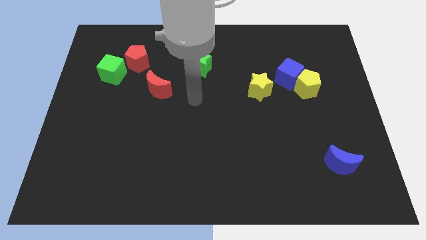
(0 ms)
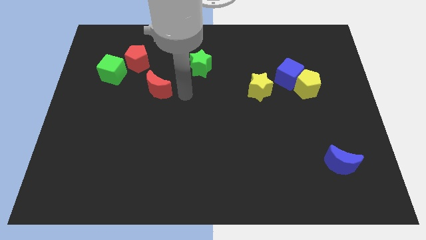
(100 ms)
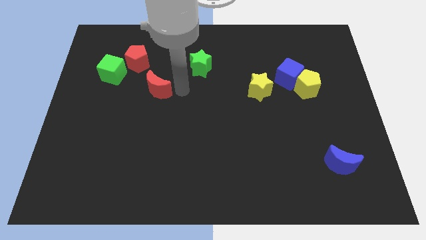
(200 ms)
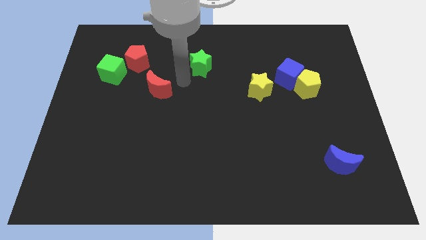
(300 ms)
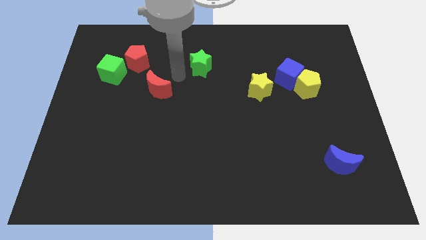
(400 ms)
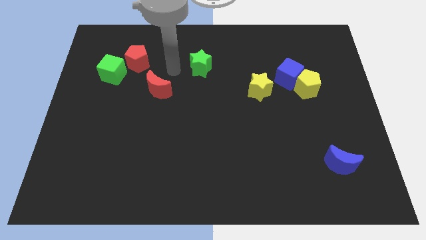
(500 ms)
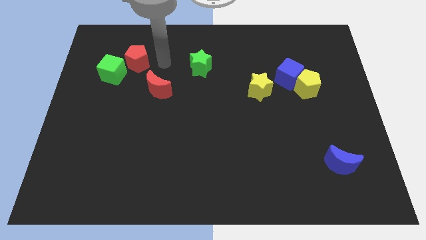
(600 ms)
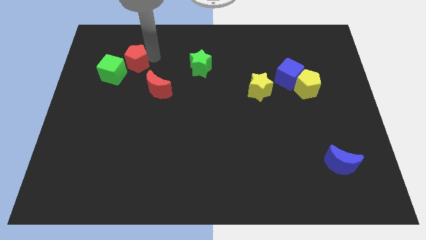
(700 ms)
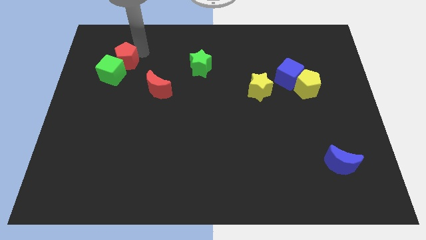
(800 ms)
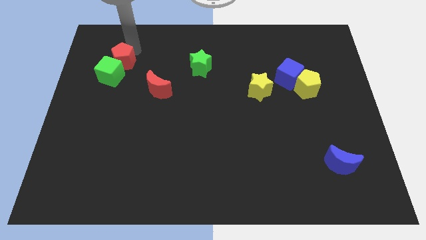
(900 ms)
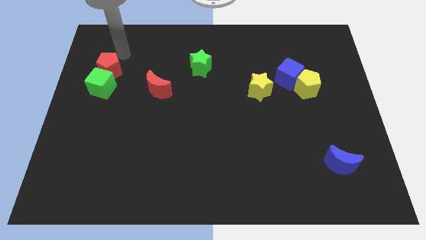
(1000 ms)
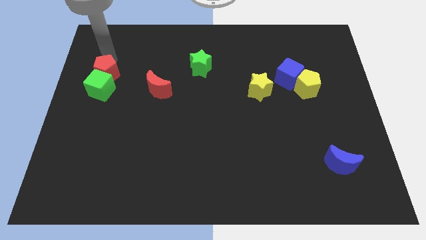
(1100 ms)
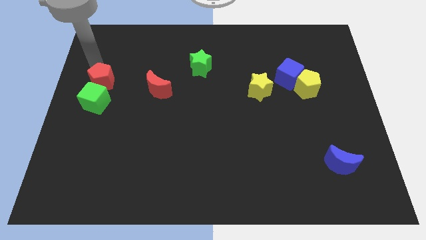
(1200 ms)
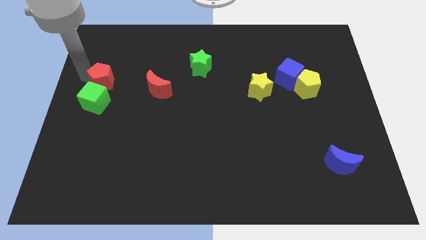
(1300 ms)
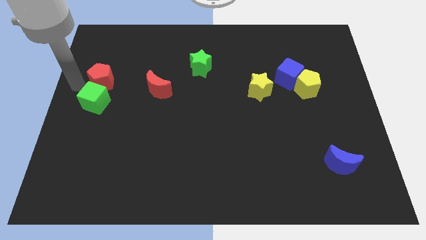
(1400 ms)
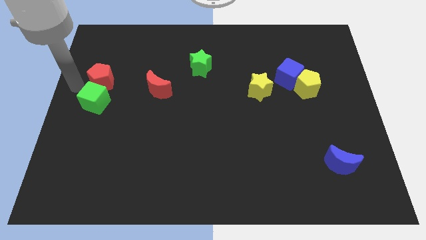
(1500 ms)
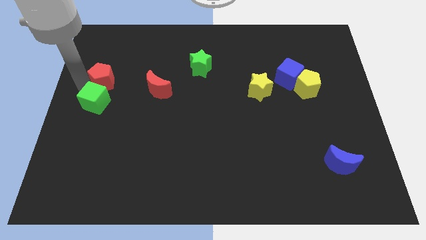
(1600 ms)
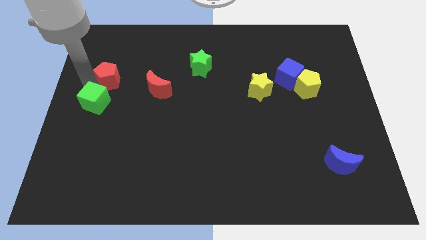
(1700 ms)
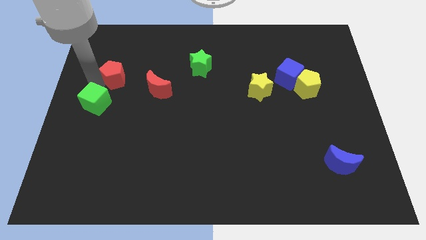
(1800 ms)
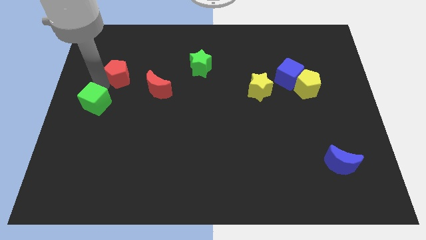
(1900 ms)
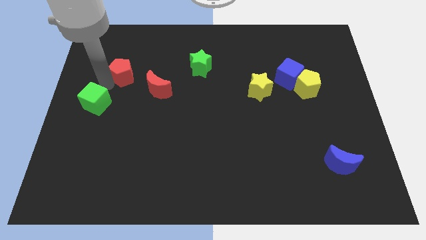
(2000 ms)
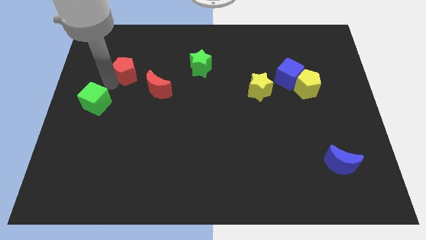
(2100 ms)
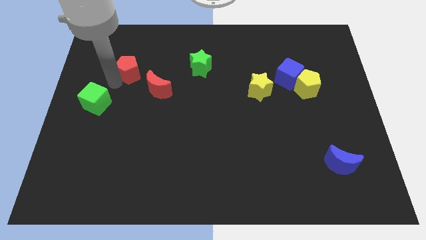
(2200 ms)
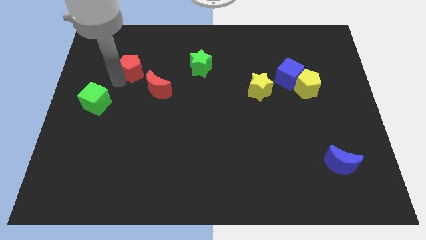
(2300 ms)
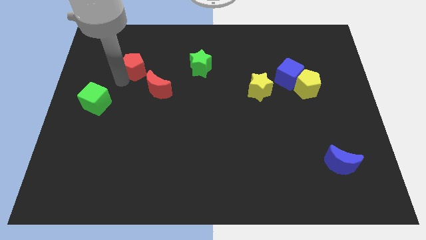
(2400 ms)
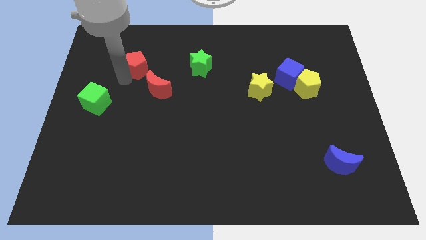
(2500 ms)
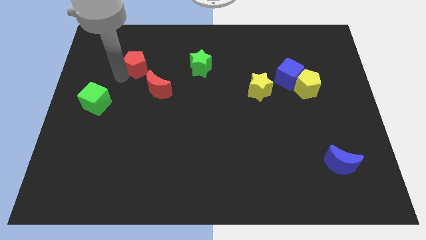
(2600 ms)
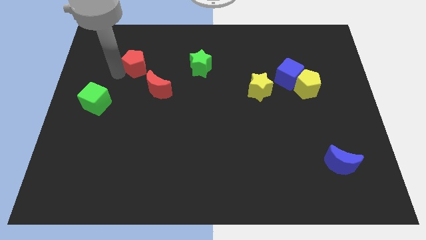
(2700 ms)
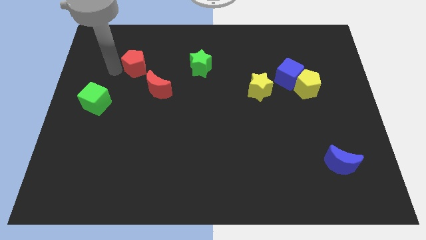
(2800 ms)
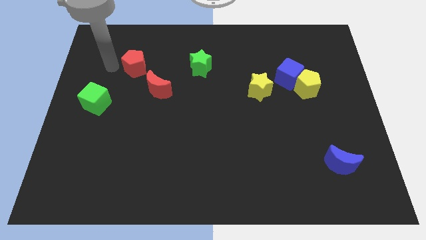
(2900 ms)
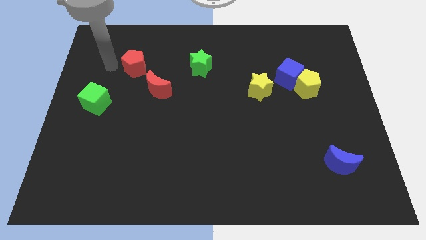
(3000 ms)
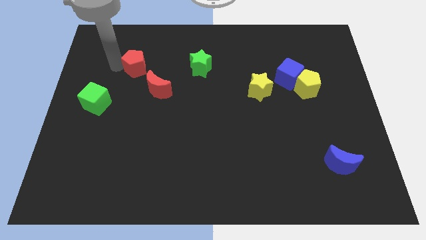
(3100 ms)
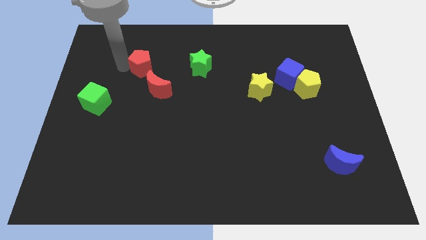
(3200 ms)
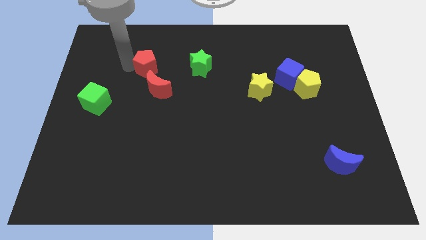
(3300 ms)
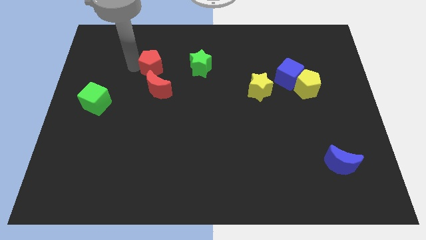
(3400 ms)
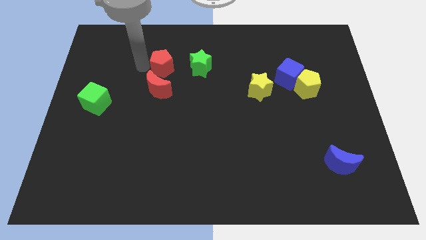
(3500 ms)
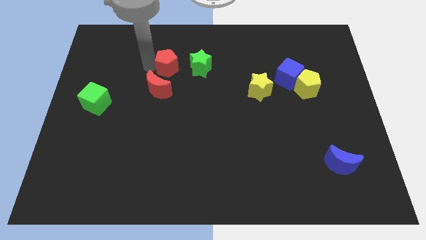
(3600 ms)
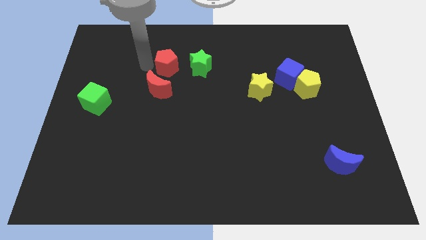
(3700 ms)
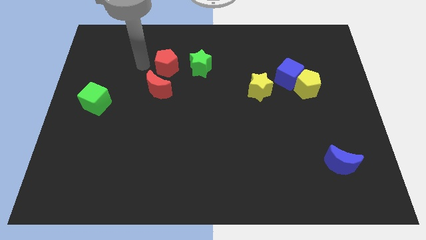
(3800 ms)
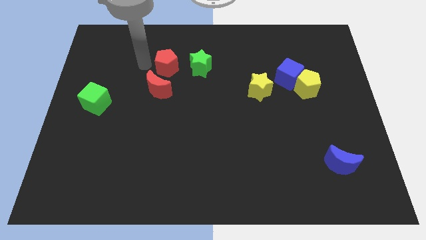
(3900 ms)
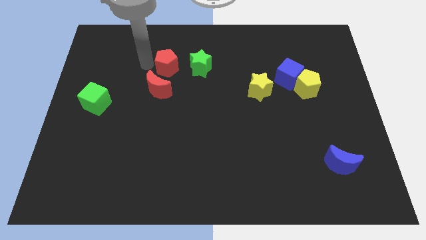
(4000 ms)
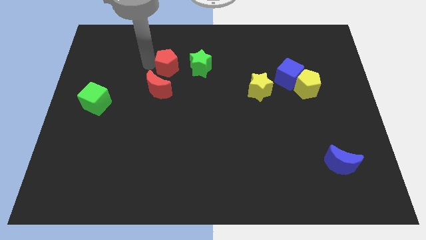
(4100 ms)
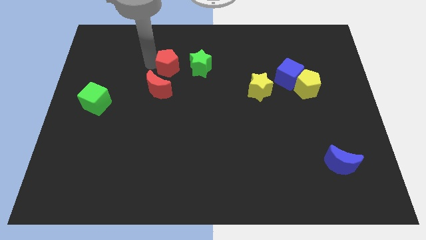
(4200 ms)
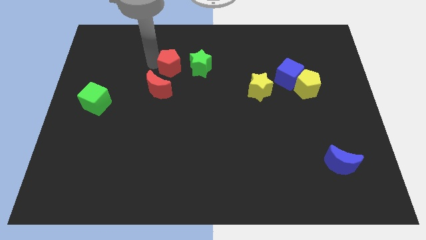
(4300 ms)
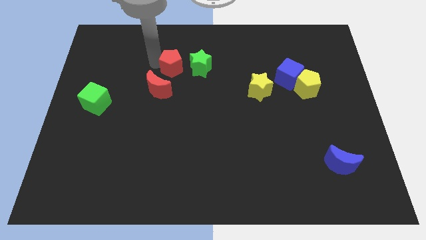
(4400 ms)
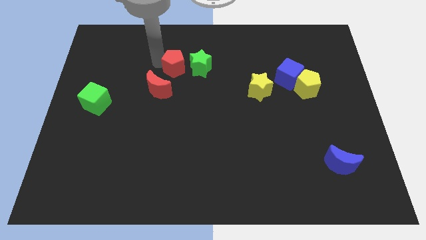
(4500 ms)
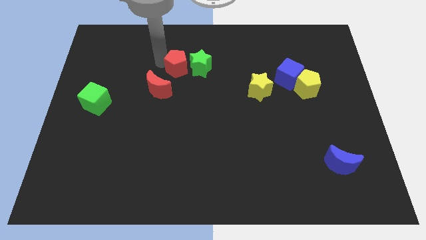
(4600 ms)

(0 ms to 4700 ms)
push the red pentagon next to the green star

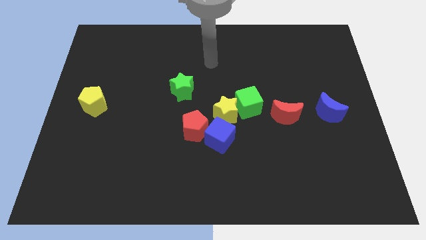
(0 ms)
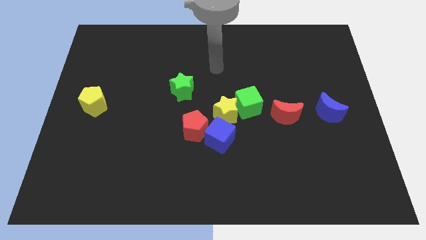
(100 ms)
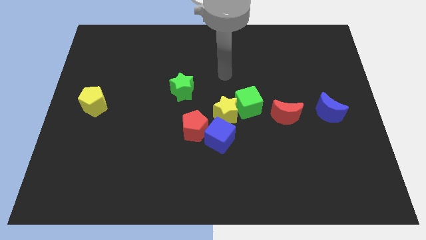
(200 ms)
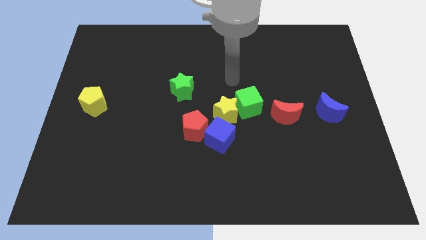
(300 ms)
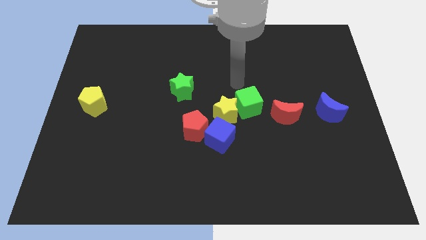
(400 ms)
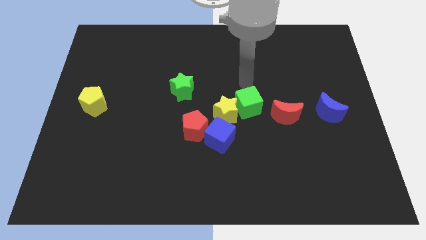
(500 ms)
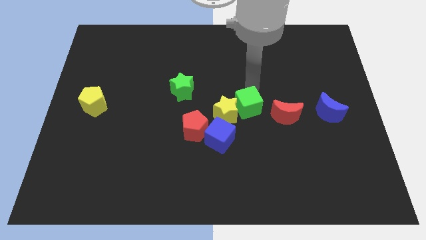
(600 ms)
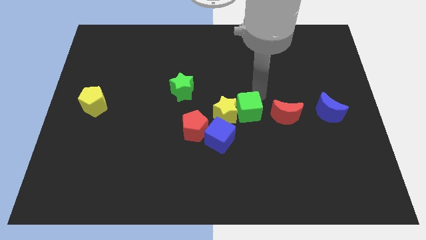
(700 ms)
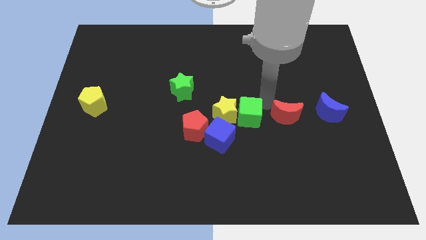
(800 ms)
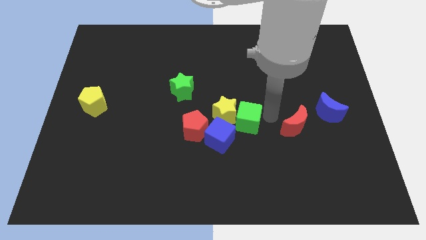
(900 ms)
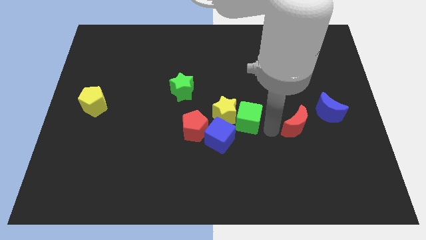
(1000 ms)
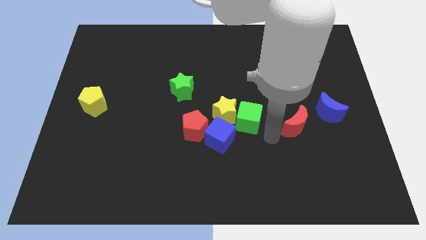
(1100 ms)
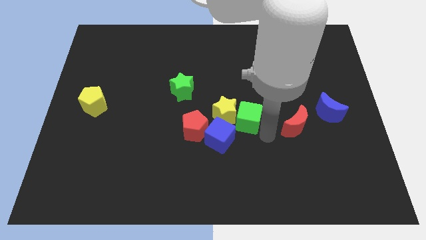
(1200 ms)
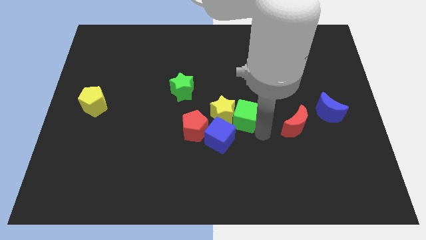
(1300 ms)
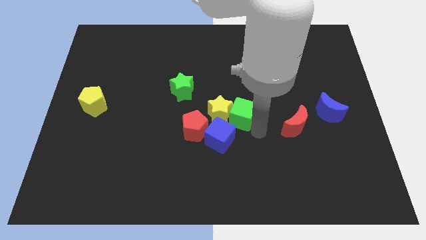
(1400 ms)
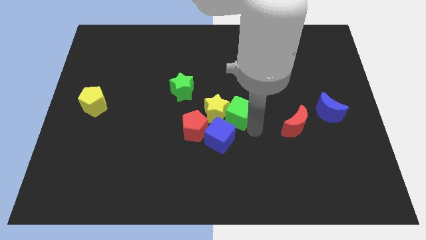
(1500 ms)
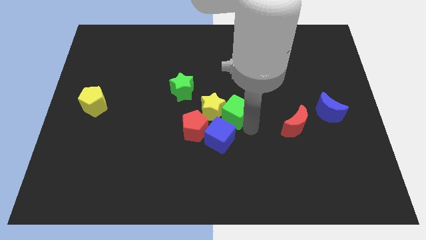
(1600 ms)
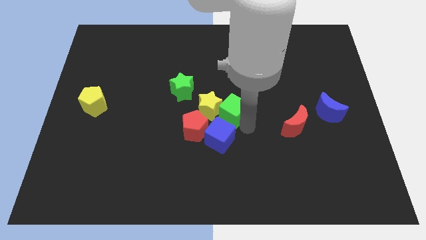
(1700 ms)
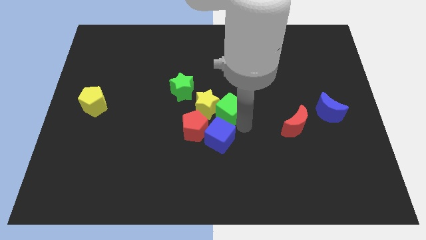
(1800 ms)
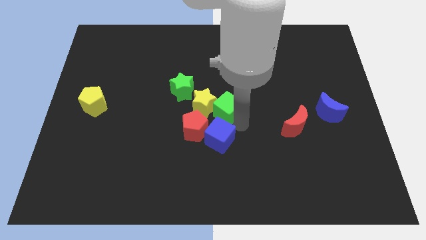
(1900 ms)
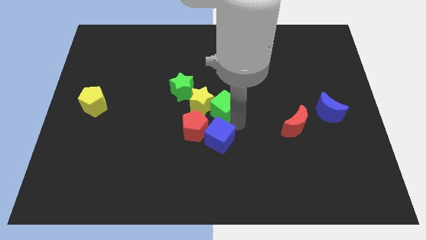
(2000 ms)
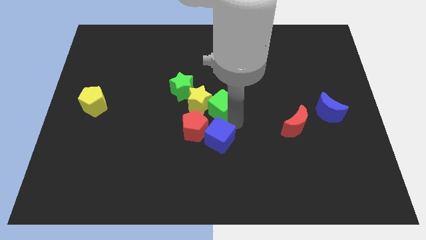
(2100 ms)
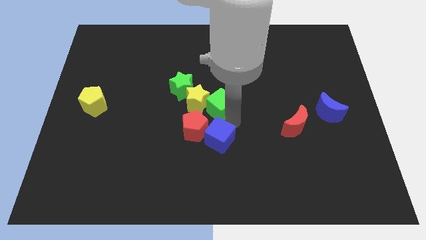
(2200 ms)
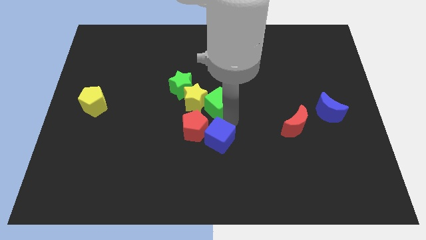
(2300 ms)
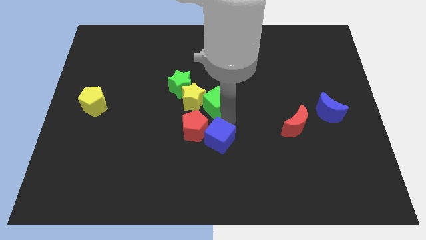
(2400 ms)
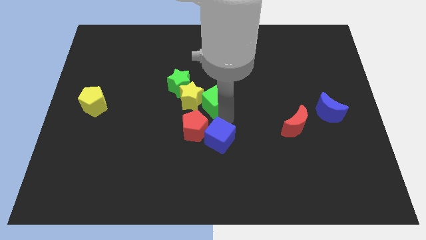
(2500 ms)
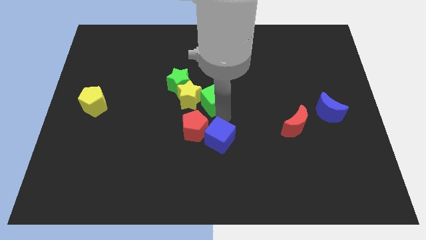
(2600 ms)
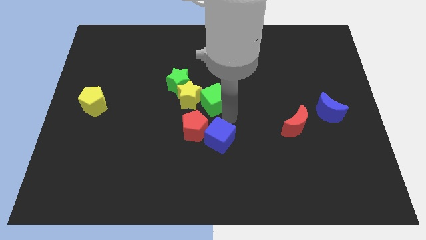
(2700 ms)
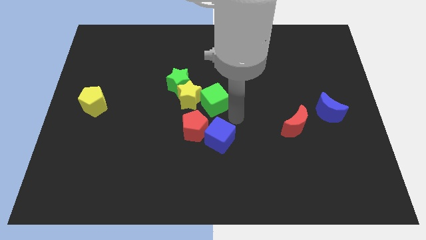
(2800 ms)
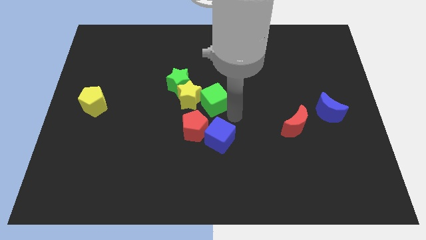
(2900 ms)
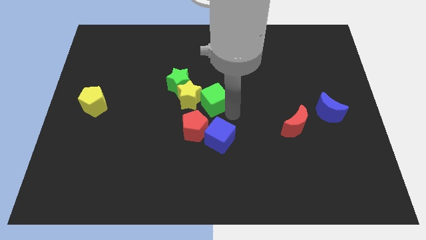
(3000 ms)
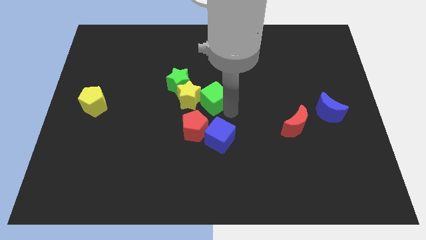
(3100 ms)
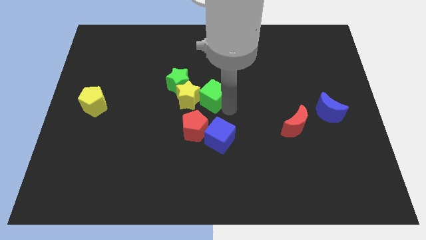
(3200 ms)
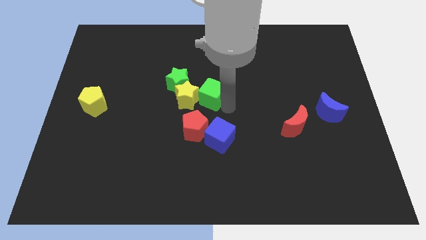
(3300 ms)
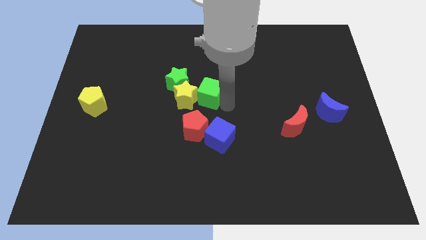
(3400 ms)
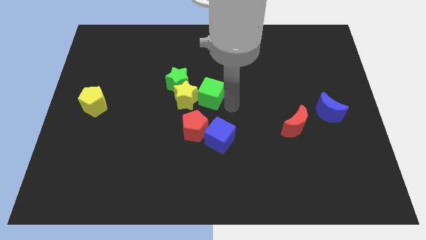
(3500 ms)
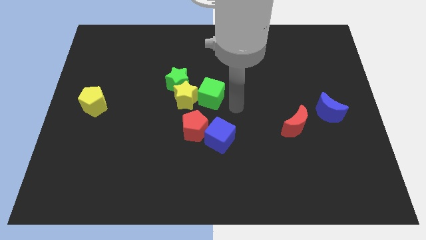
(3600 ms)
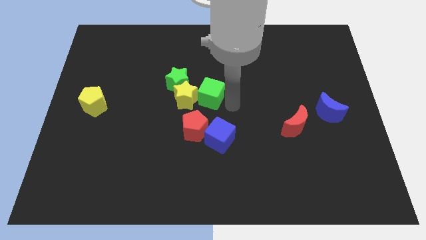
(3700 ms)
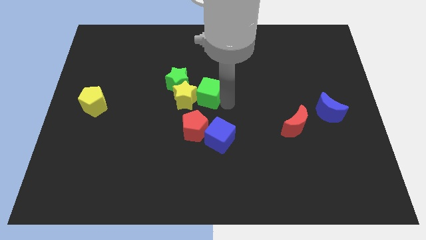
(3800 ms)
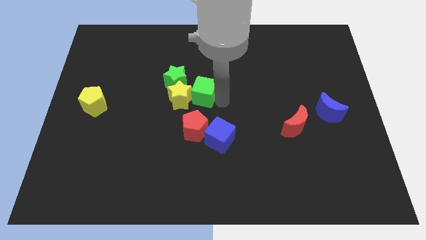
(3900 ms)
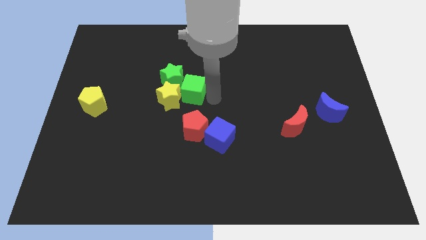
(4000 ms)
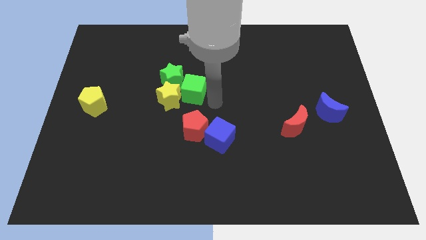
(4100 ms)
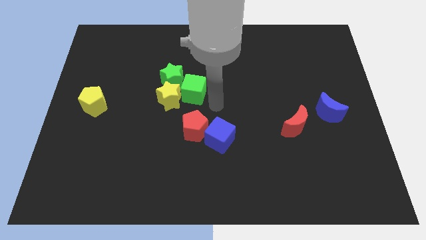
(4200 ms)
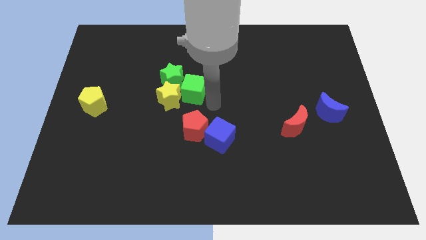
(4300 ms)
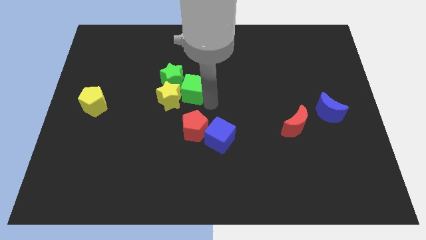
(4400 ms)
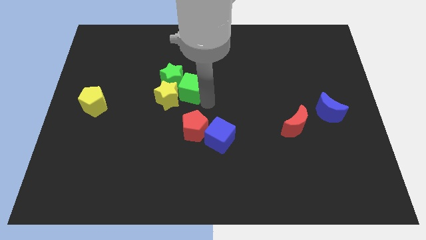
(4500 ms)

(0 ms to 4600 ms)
put the green cube next to the green star
